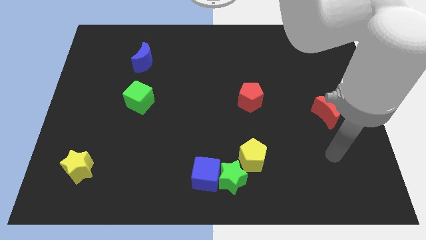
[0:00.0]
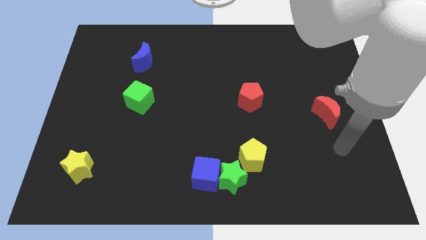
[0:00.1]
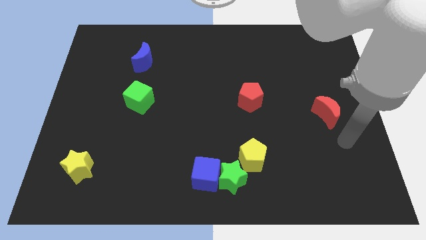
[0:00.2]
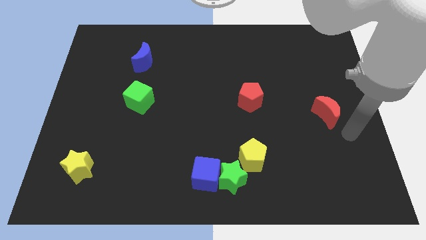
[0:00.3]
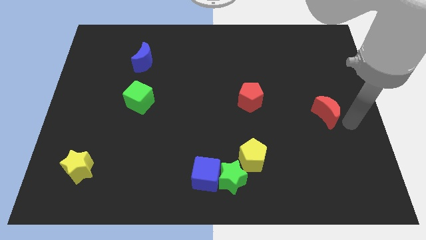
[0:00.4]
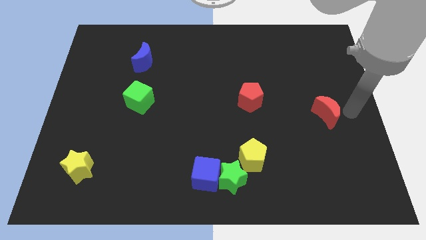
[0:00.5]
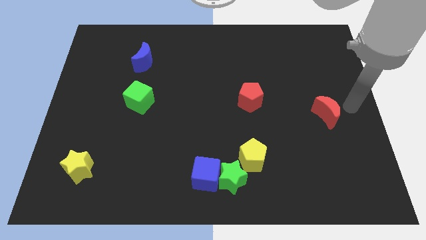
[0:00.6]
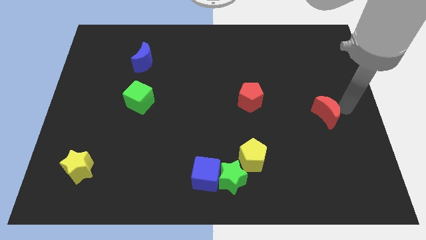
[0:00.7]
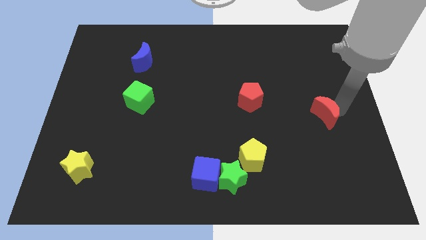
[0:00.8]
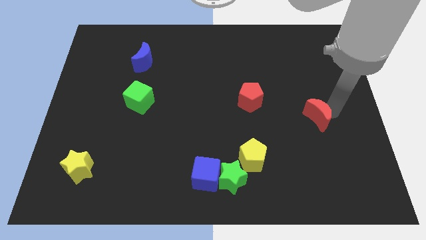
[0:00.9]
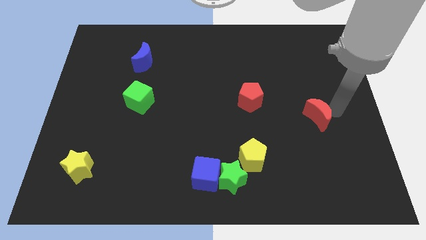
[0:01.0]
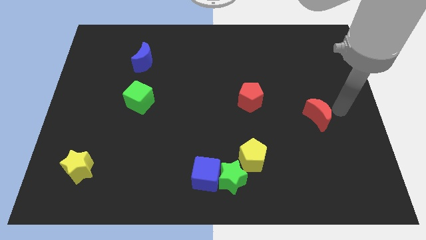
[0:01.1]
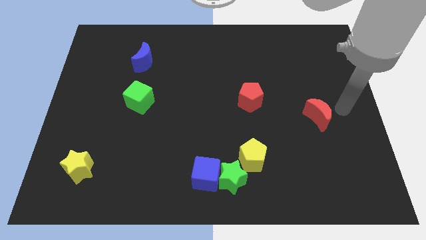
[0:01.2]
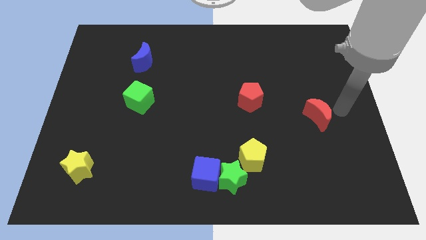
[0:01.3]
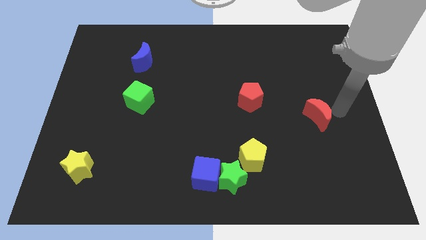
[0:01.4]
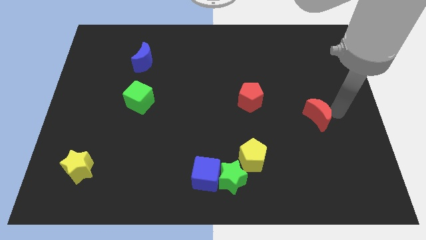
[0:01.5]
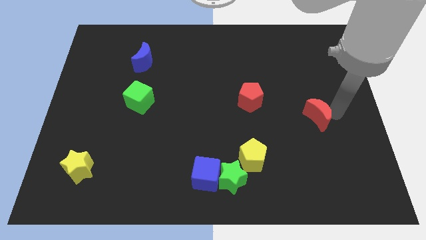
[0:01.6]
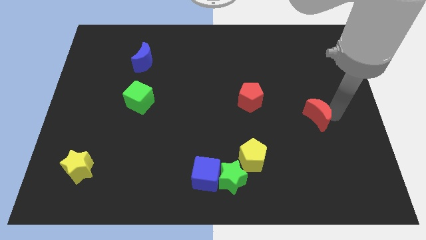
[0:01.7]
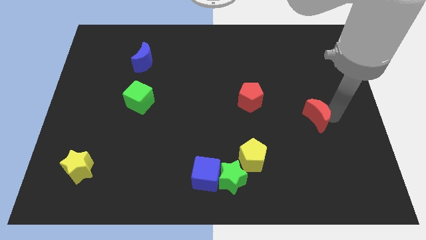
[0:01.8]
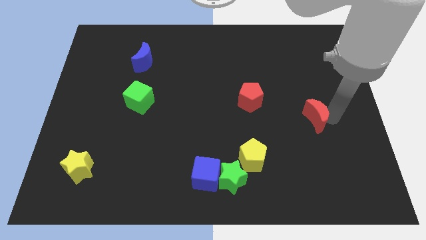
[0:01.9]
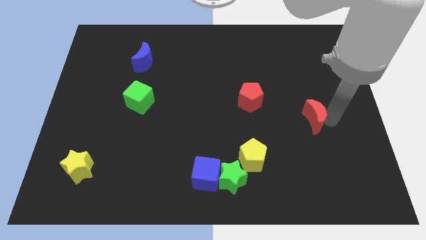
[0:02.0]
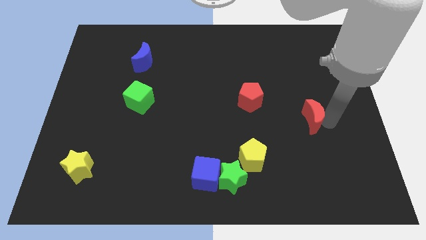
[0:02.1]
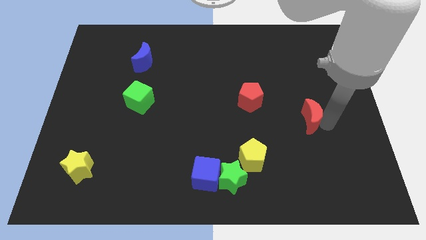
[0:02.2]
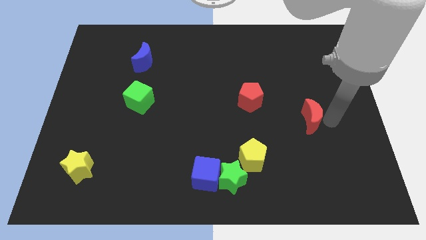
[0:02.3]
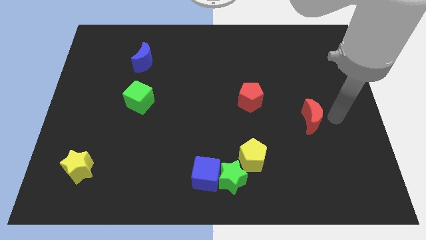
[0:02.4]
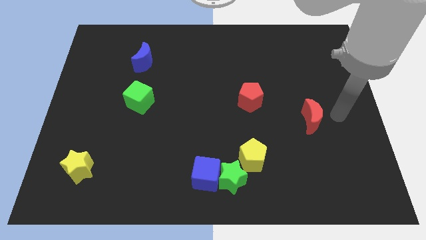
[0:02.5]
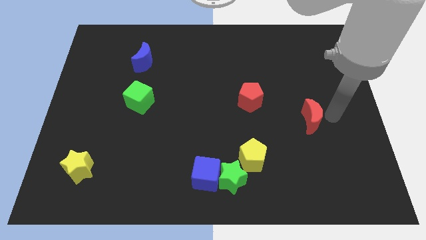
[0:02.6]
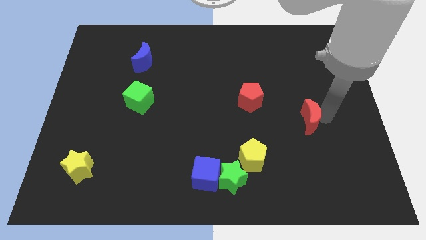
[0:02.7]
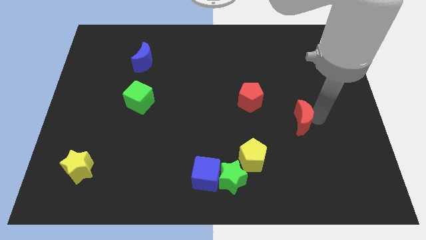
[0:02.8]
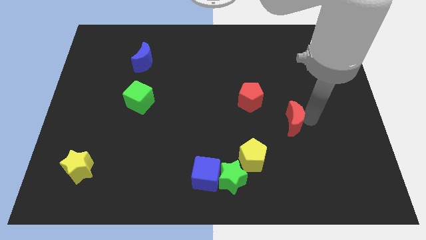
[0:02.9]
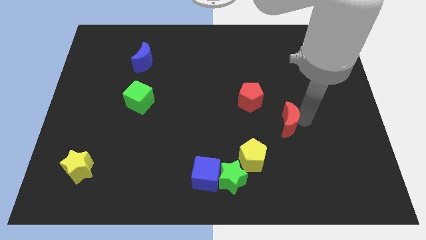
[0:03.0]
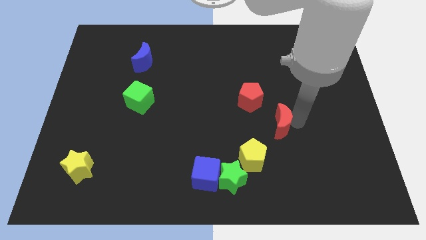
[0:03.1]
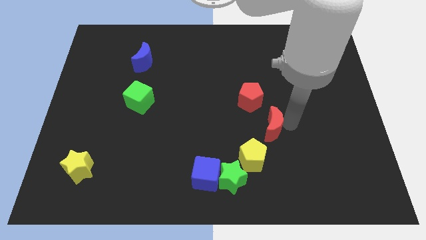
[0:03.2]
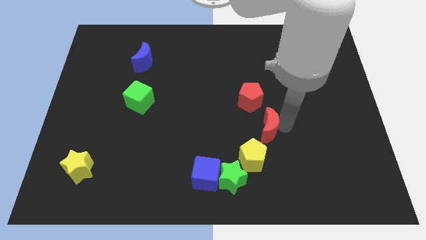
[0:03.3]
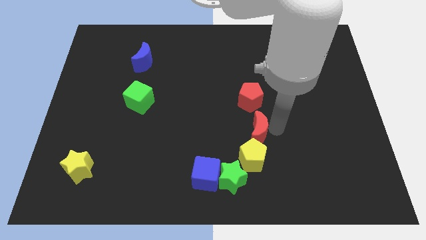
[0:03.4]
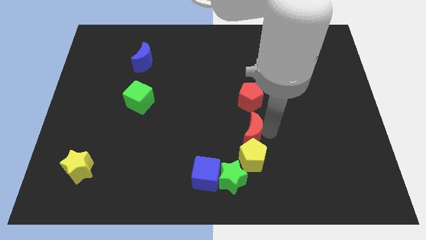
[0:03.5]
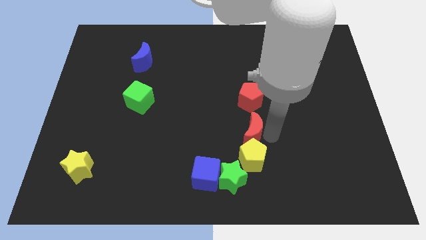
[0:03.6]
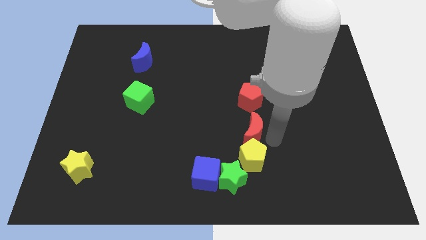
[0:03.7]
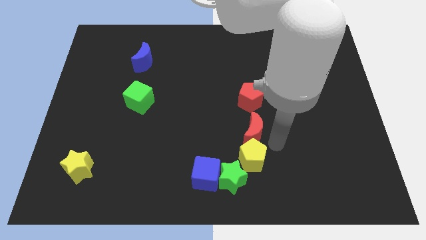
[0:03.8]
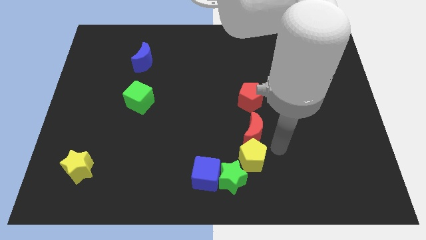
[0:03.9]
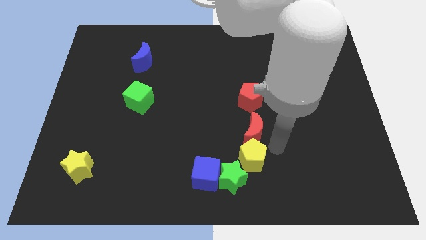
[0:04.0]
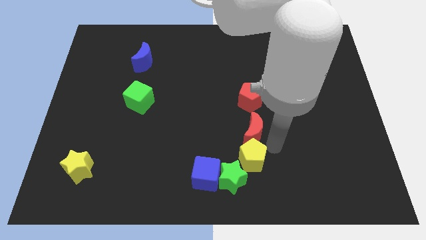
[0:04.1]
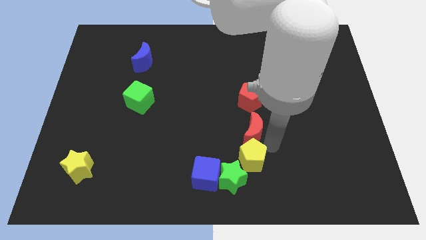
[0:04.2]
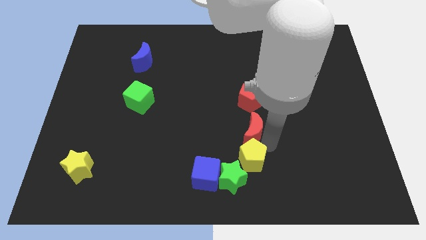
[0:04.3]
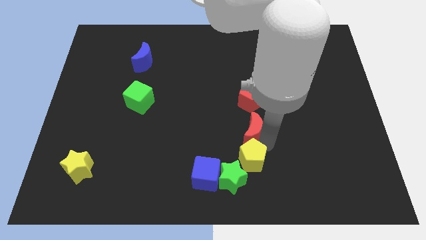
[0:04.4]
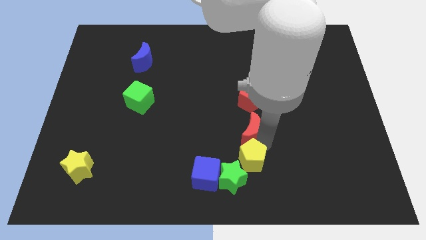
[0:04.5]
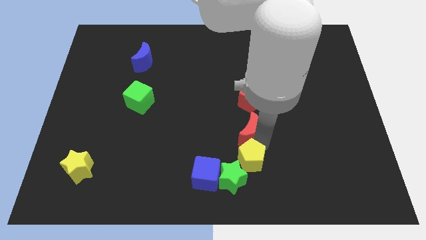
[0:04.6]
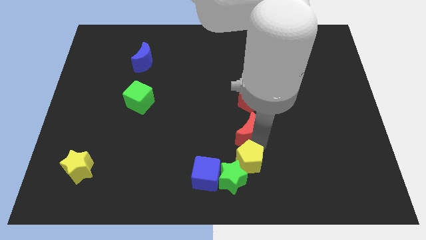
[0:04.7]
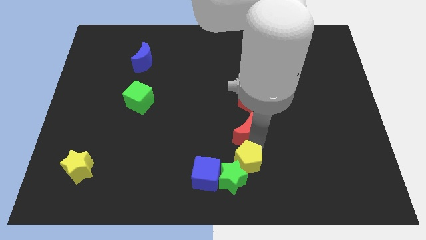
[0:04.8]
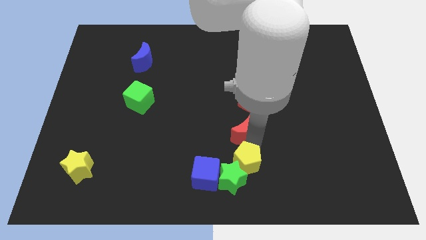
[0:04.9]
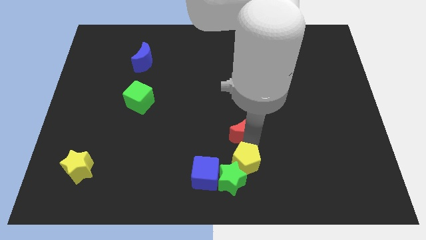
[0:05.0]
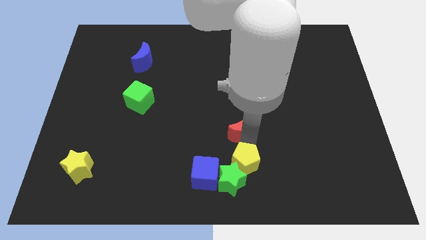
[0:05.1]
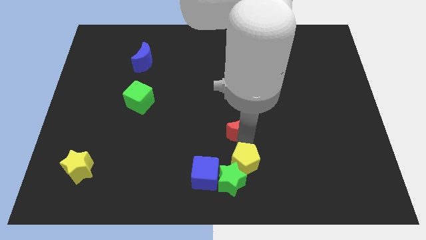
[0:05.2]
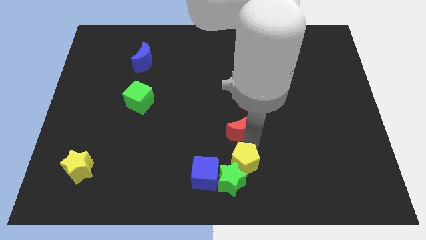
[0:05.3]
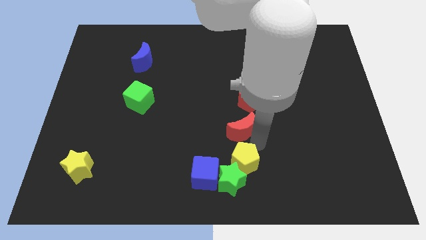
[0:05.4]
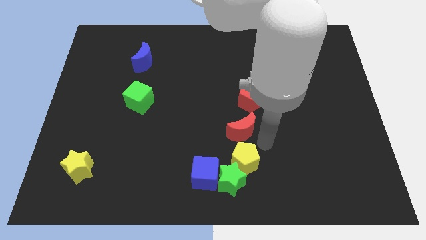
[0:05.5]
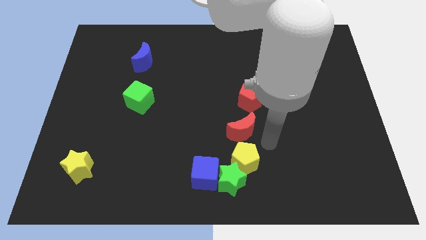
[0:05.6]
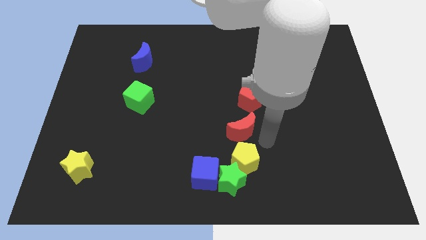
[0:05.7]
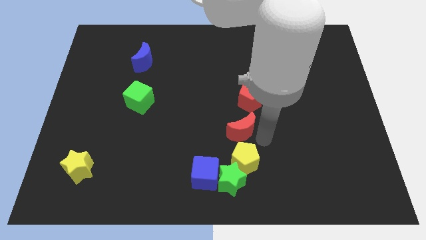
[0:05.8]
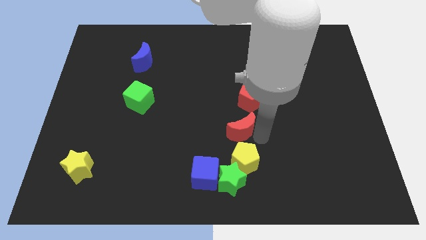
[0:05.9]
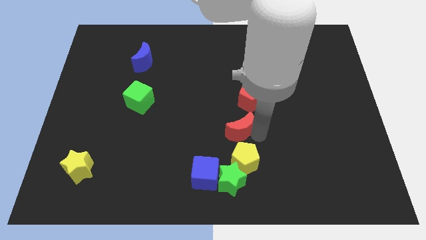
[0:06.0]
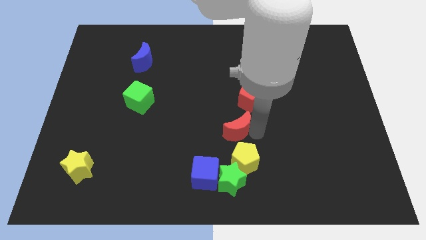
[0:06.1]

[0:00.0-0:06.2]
move the red moon left

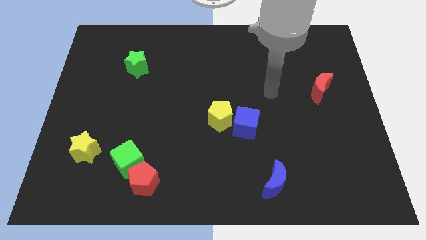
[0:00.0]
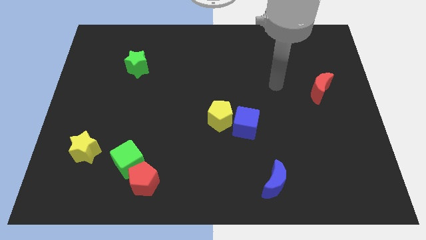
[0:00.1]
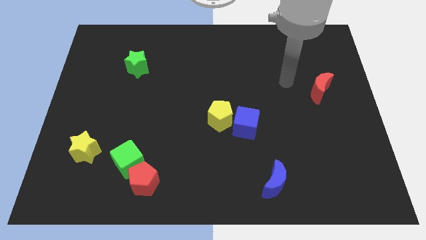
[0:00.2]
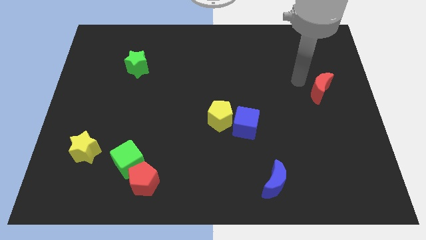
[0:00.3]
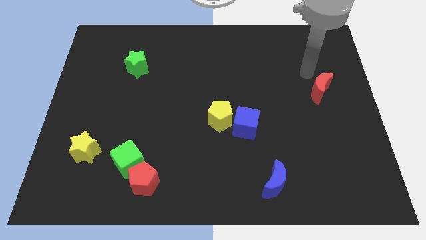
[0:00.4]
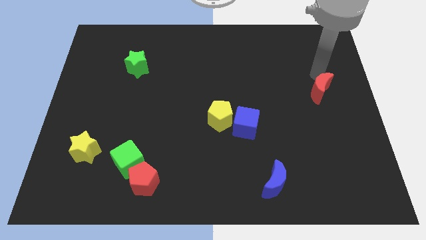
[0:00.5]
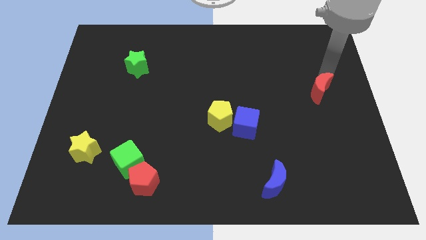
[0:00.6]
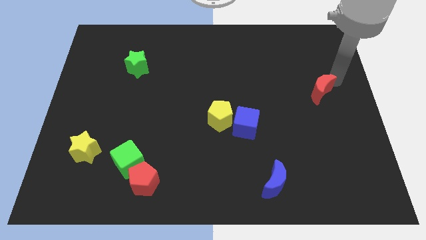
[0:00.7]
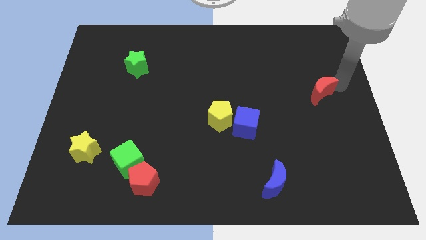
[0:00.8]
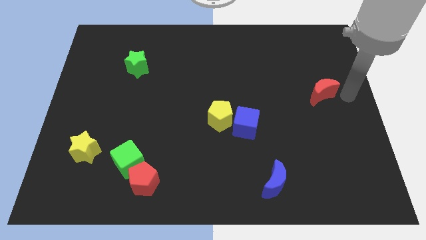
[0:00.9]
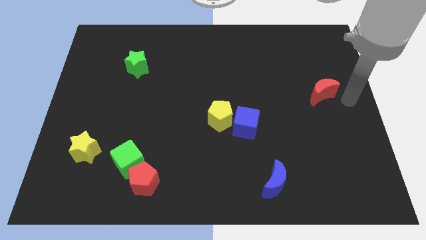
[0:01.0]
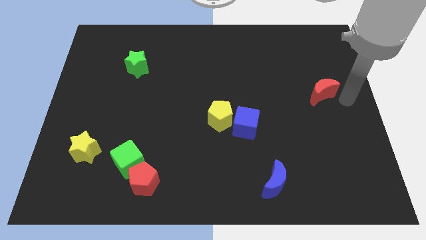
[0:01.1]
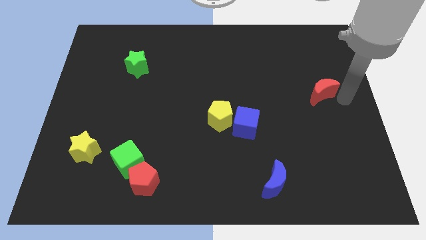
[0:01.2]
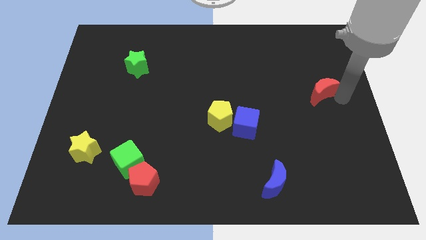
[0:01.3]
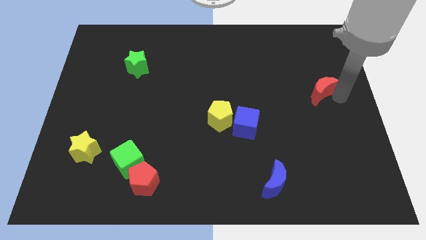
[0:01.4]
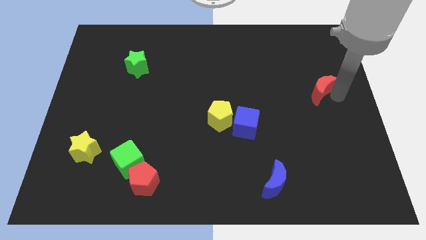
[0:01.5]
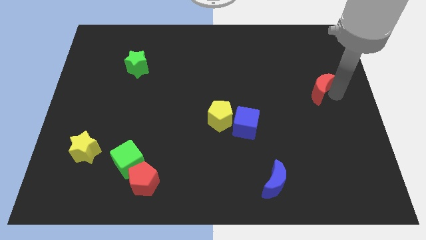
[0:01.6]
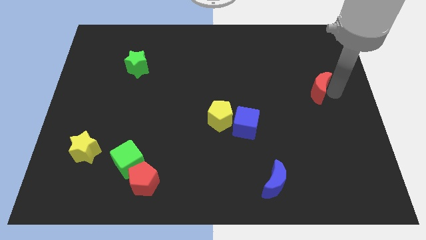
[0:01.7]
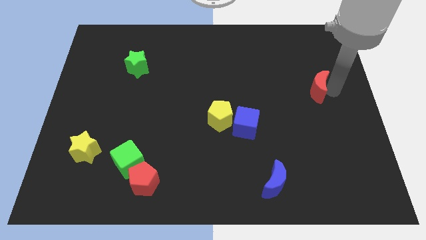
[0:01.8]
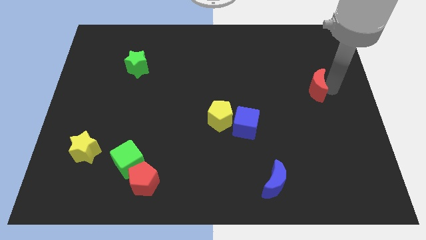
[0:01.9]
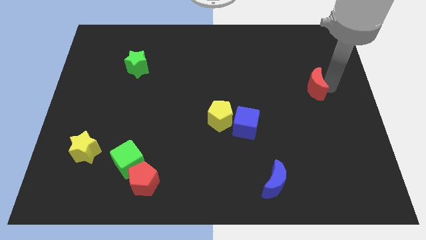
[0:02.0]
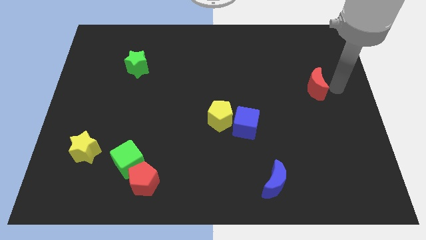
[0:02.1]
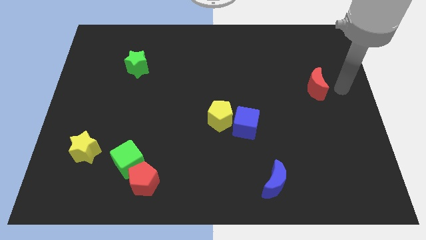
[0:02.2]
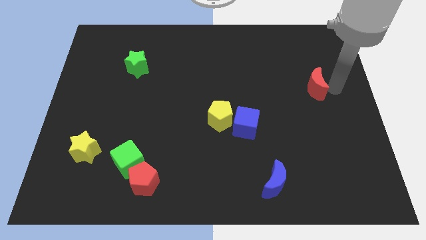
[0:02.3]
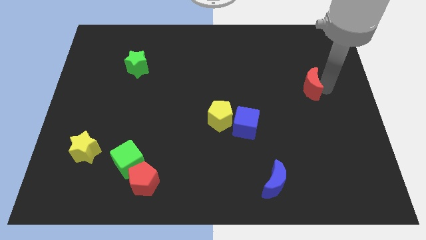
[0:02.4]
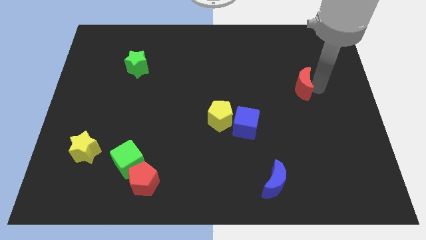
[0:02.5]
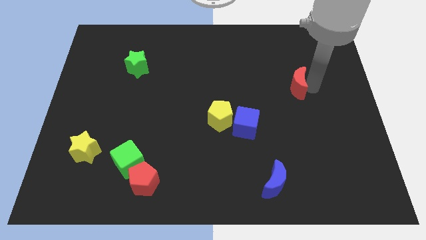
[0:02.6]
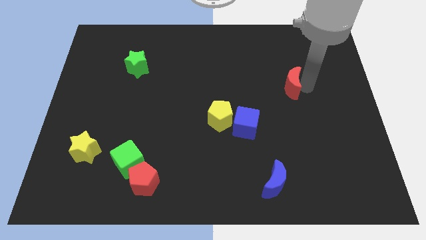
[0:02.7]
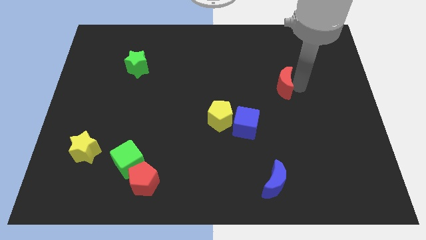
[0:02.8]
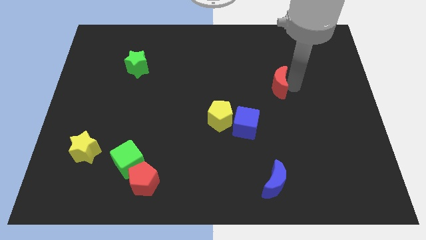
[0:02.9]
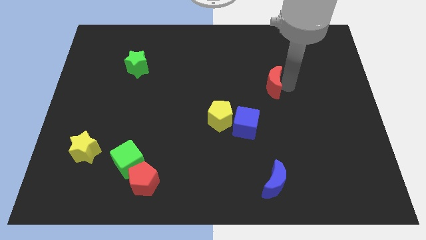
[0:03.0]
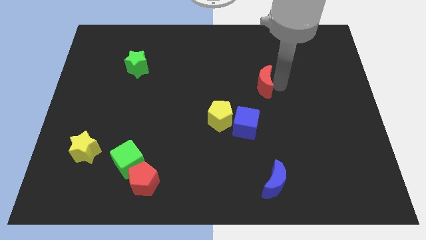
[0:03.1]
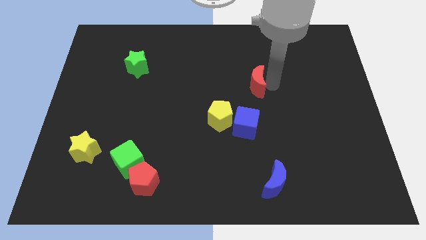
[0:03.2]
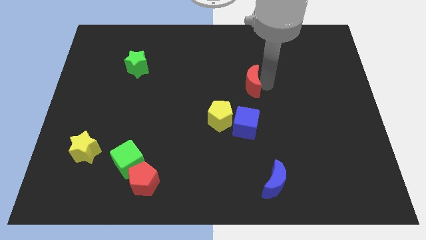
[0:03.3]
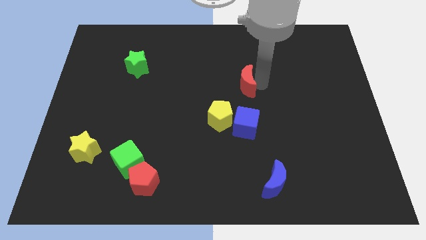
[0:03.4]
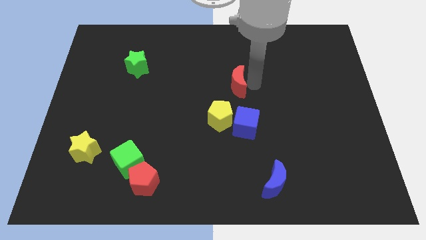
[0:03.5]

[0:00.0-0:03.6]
push the red moon to the left
